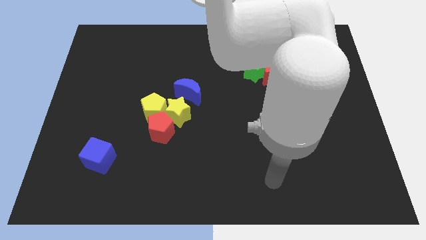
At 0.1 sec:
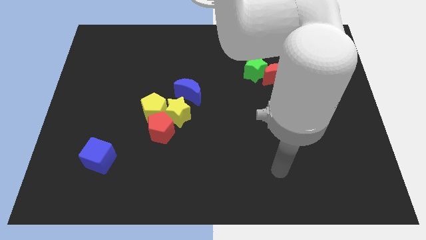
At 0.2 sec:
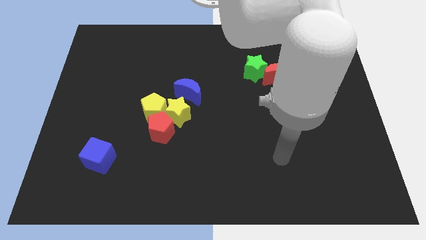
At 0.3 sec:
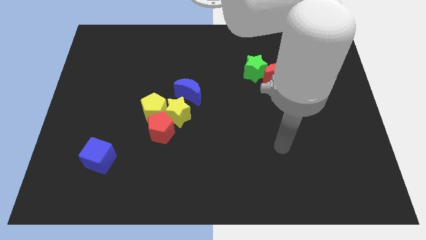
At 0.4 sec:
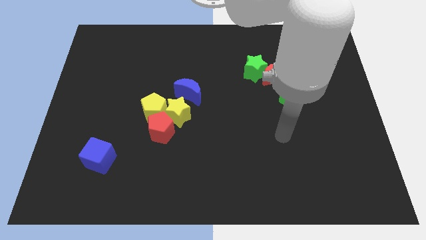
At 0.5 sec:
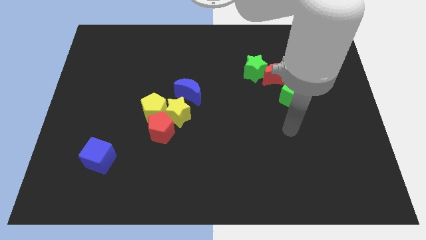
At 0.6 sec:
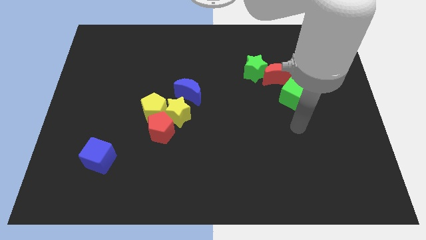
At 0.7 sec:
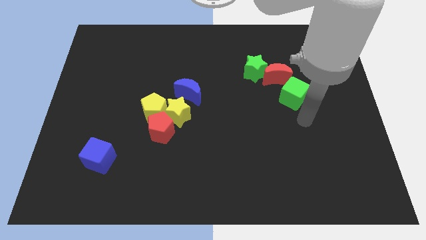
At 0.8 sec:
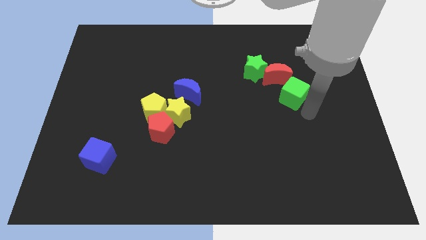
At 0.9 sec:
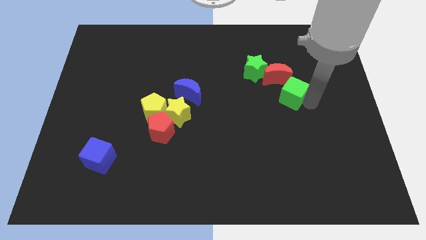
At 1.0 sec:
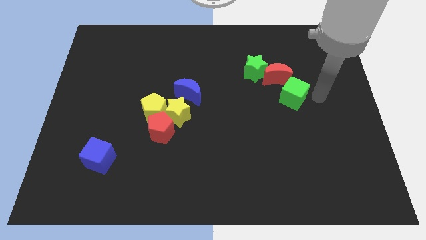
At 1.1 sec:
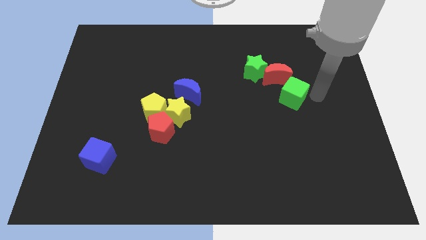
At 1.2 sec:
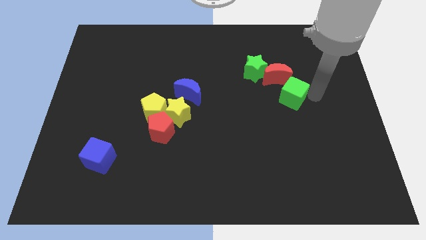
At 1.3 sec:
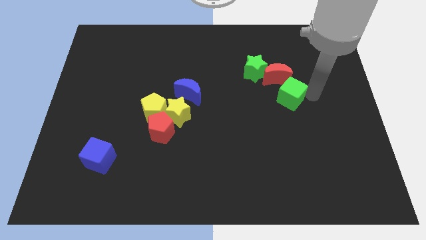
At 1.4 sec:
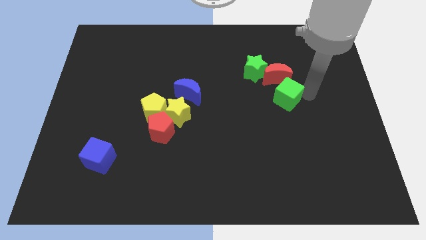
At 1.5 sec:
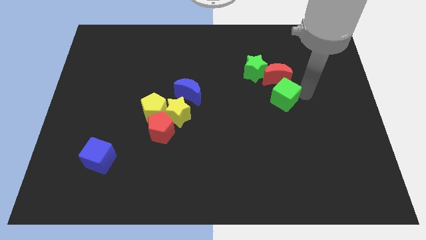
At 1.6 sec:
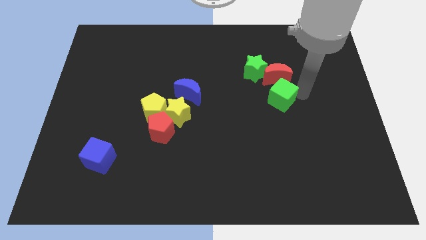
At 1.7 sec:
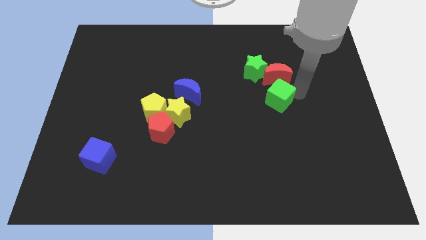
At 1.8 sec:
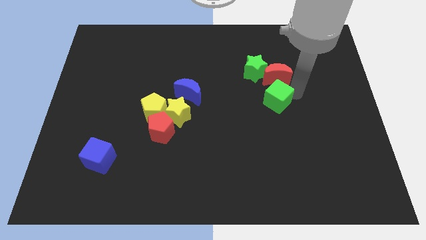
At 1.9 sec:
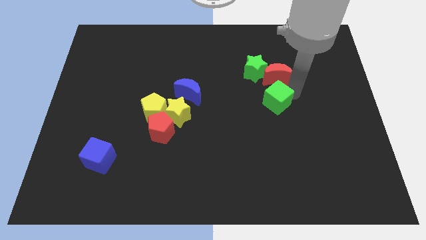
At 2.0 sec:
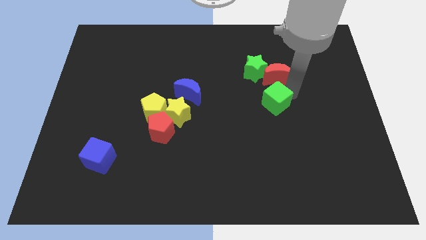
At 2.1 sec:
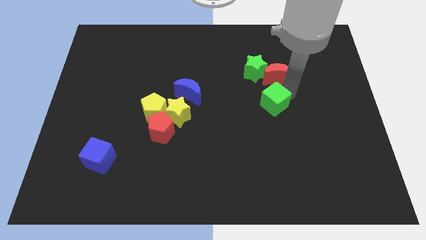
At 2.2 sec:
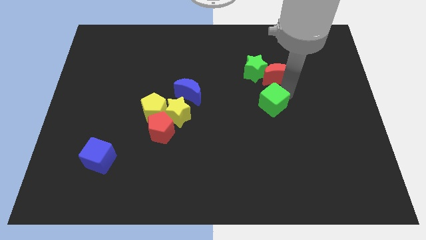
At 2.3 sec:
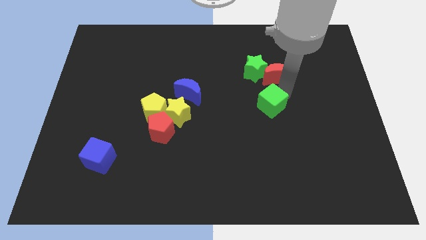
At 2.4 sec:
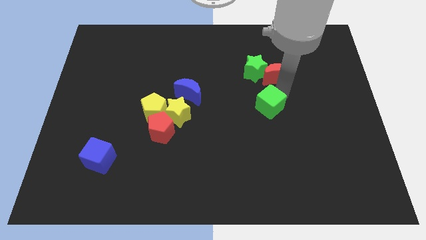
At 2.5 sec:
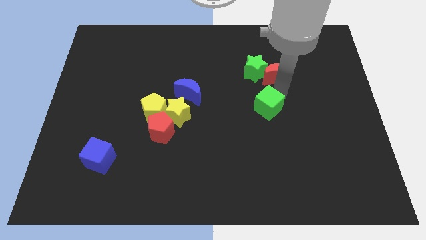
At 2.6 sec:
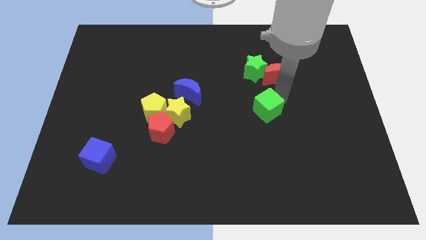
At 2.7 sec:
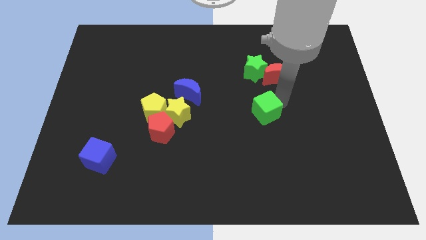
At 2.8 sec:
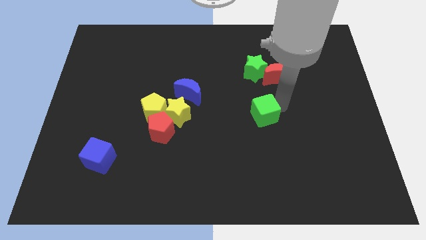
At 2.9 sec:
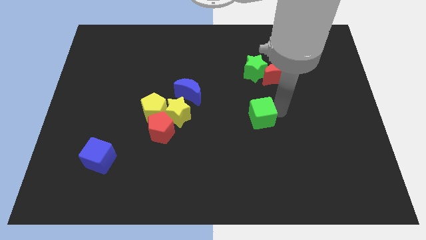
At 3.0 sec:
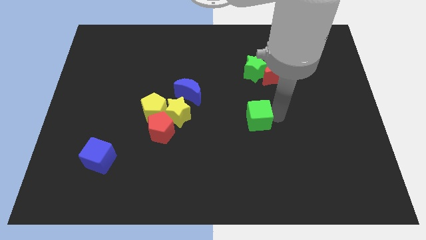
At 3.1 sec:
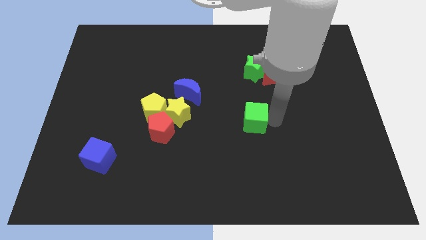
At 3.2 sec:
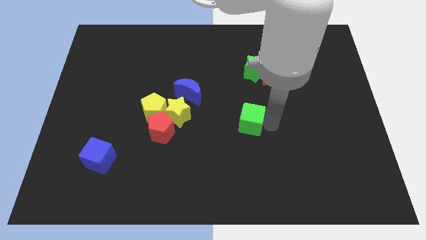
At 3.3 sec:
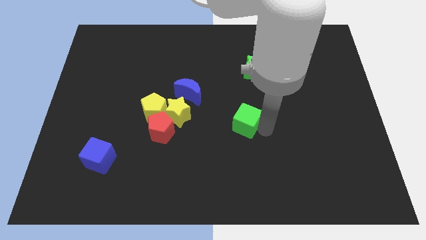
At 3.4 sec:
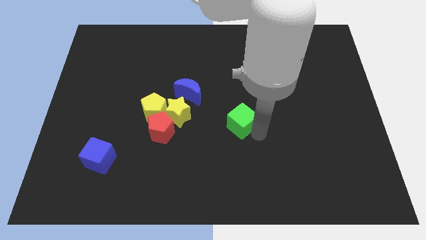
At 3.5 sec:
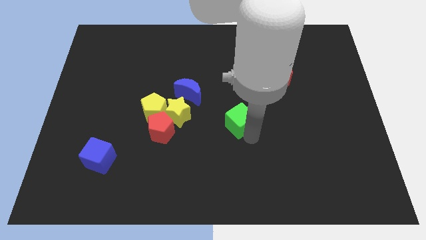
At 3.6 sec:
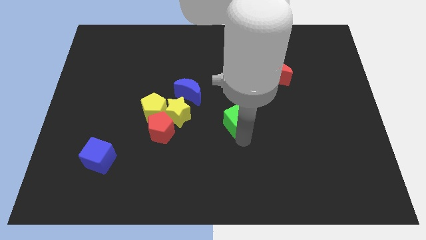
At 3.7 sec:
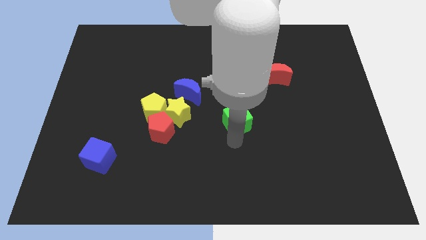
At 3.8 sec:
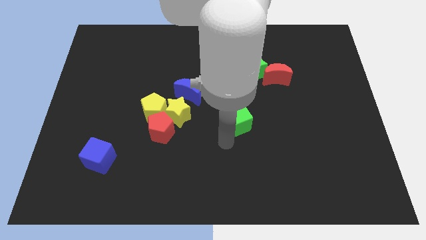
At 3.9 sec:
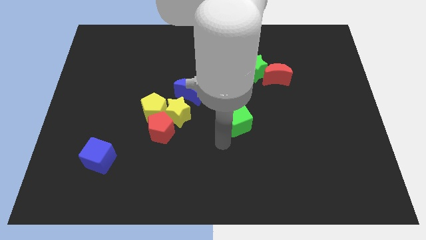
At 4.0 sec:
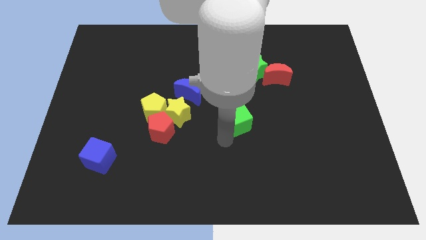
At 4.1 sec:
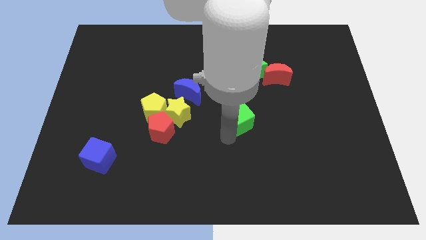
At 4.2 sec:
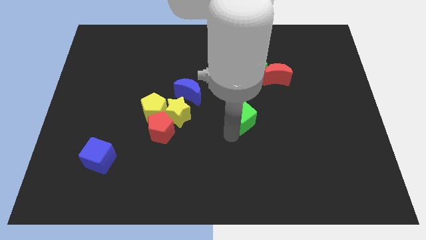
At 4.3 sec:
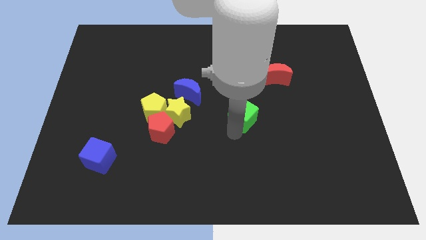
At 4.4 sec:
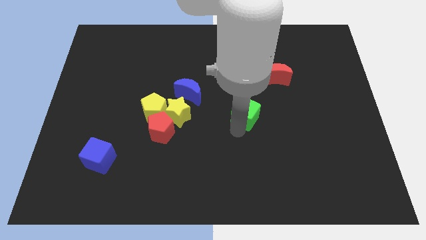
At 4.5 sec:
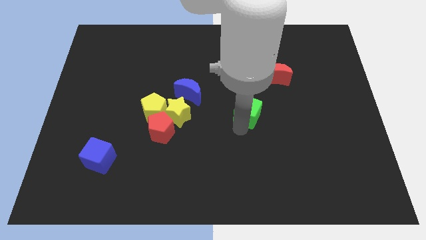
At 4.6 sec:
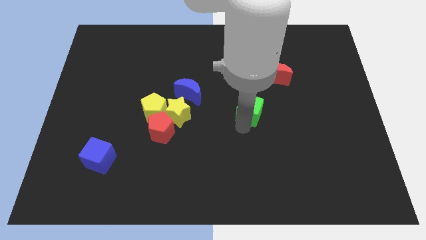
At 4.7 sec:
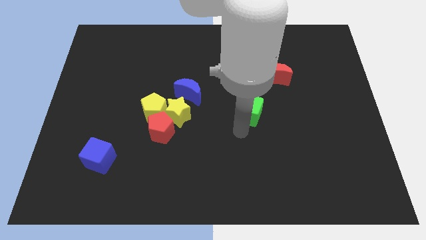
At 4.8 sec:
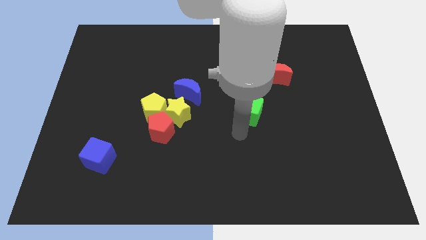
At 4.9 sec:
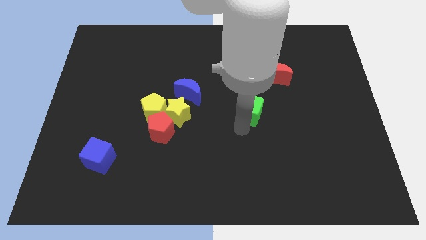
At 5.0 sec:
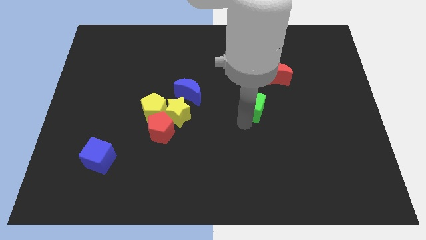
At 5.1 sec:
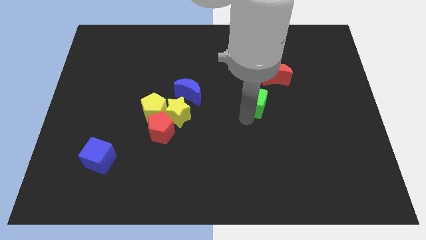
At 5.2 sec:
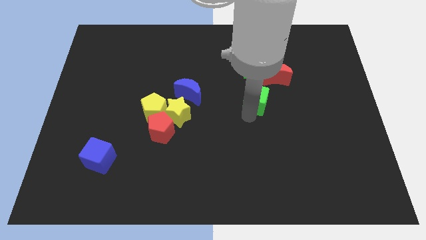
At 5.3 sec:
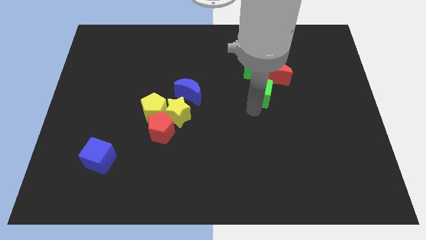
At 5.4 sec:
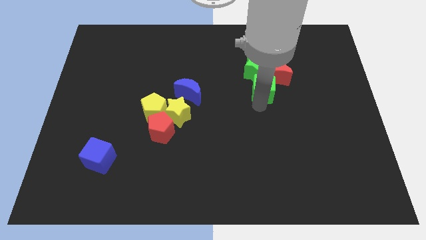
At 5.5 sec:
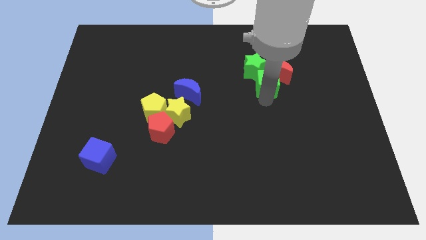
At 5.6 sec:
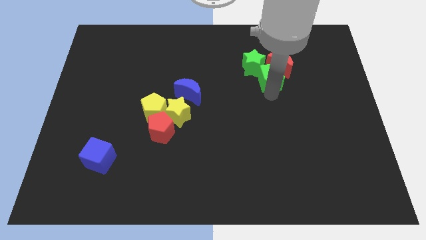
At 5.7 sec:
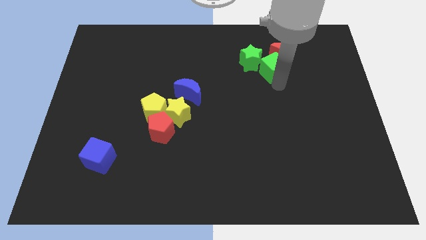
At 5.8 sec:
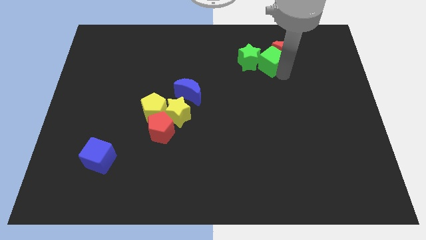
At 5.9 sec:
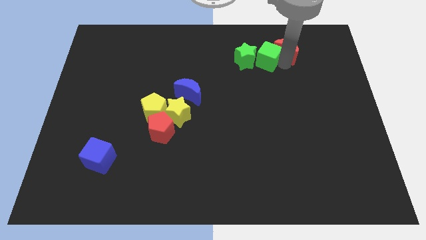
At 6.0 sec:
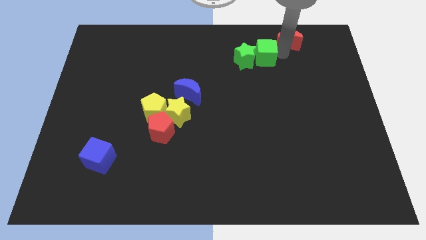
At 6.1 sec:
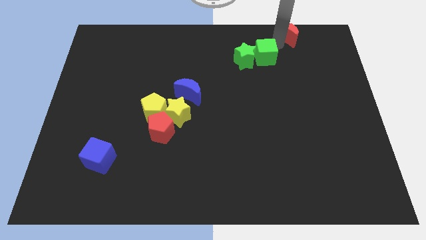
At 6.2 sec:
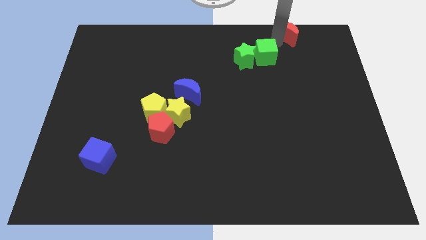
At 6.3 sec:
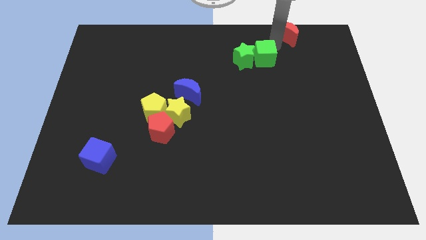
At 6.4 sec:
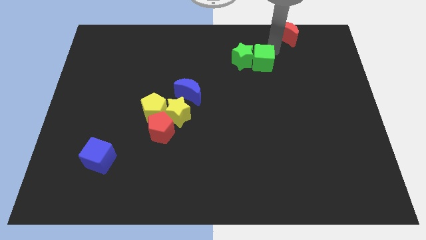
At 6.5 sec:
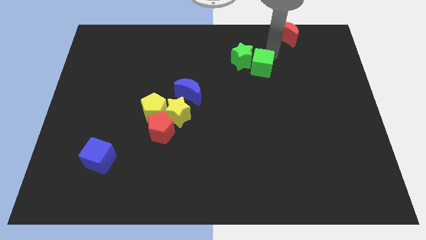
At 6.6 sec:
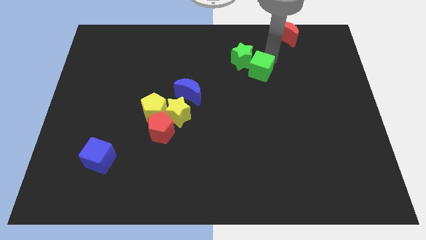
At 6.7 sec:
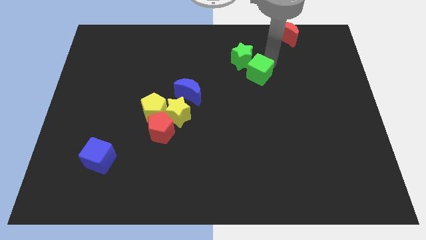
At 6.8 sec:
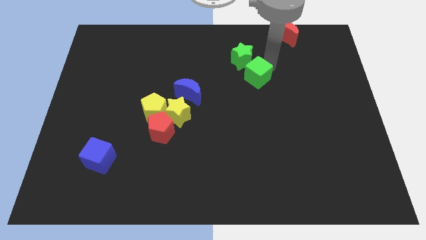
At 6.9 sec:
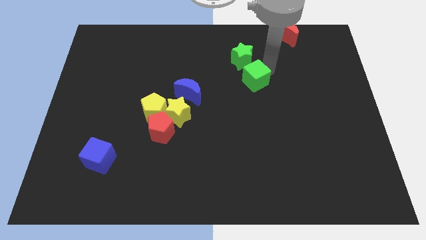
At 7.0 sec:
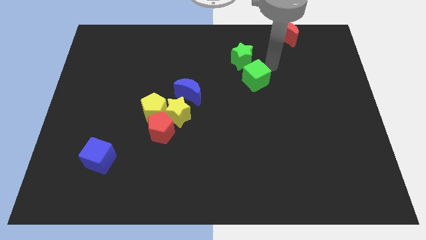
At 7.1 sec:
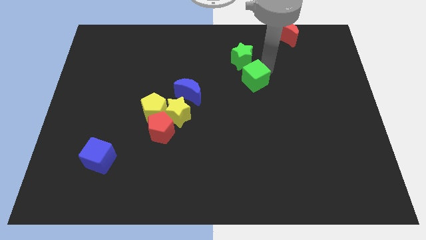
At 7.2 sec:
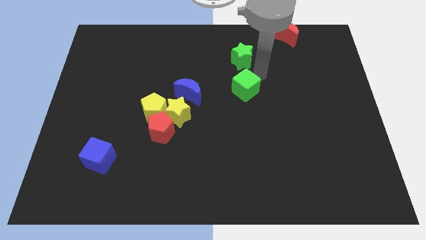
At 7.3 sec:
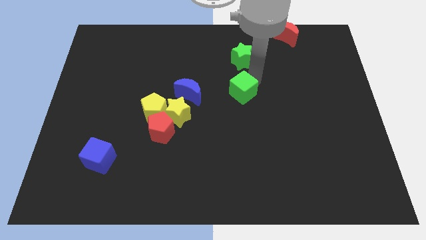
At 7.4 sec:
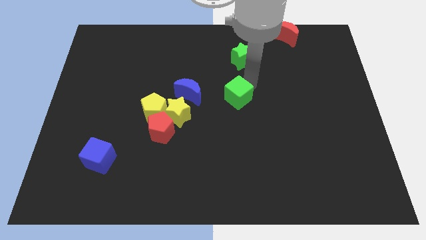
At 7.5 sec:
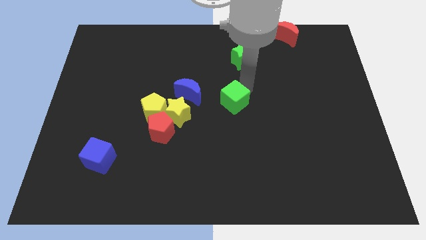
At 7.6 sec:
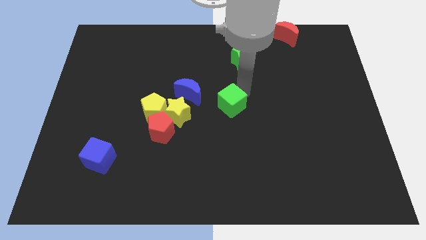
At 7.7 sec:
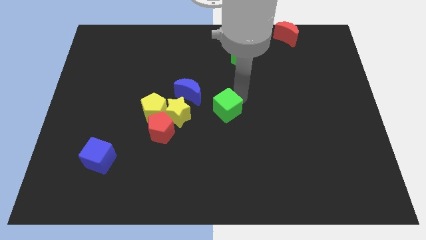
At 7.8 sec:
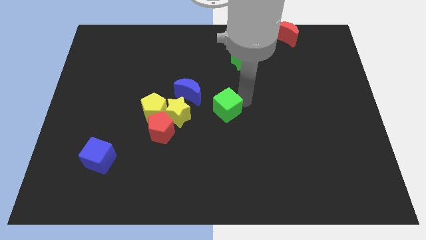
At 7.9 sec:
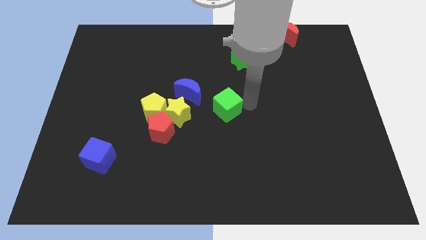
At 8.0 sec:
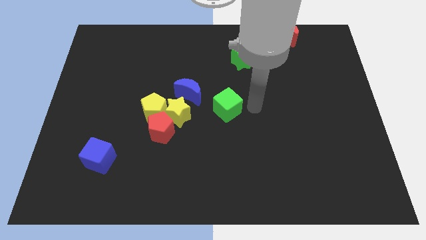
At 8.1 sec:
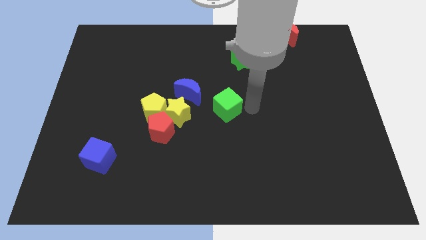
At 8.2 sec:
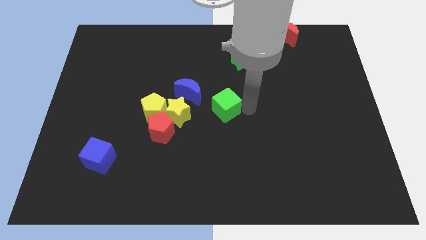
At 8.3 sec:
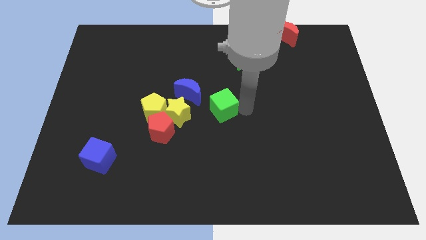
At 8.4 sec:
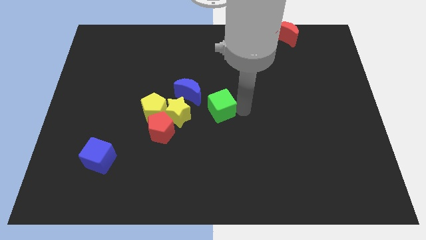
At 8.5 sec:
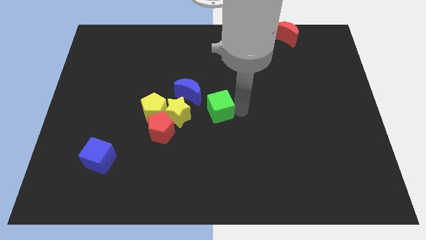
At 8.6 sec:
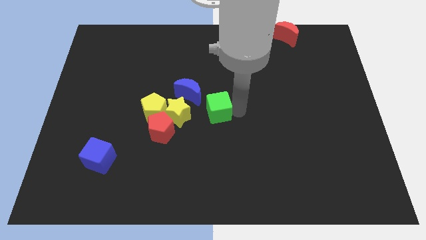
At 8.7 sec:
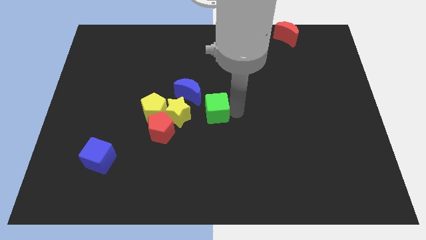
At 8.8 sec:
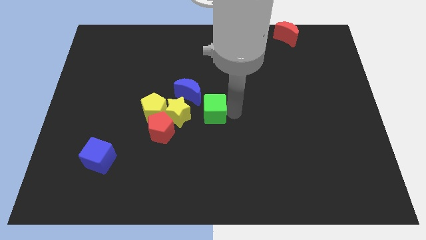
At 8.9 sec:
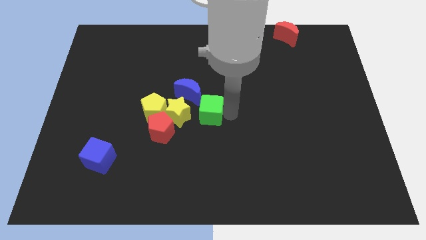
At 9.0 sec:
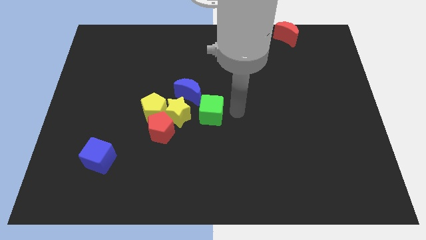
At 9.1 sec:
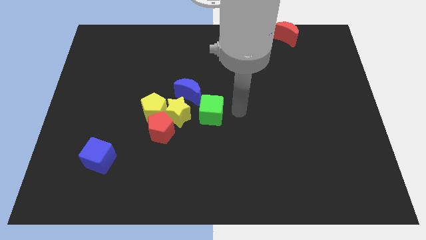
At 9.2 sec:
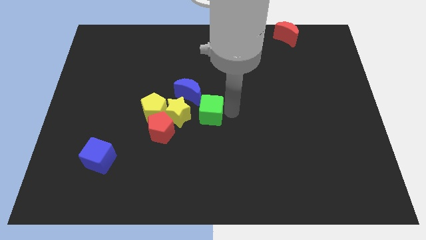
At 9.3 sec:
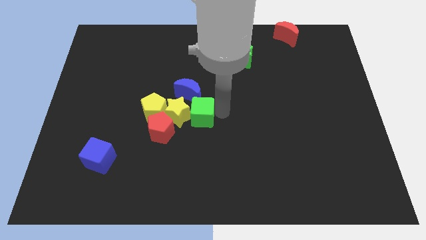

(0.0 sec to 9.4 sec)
slide the green cube towards the yellow star
